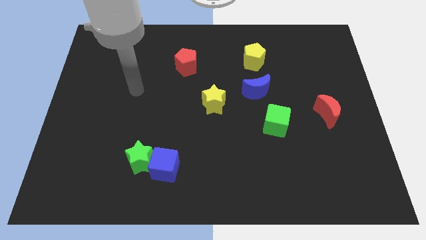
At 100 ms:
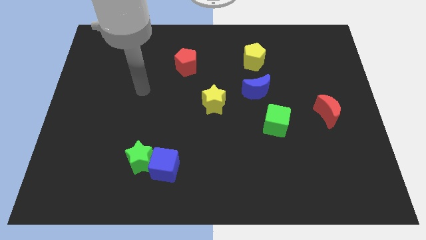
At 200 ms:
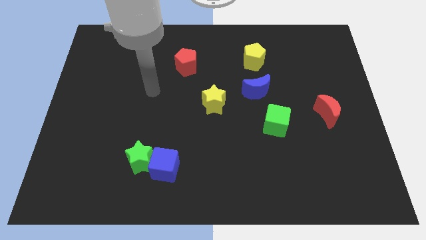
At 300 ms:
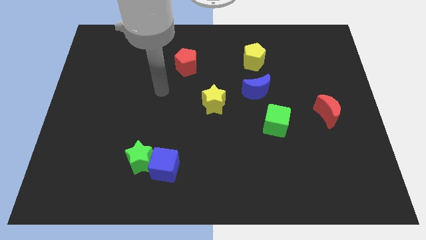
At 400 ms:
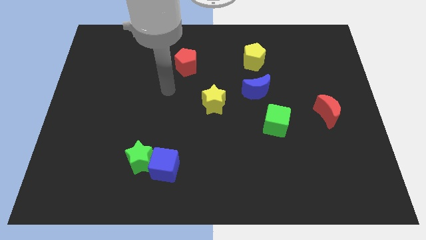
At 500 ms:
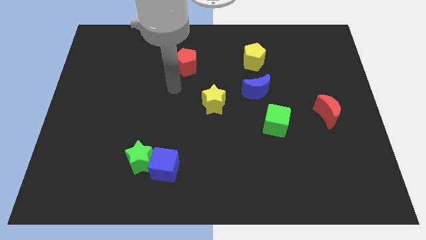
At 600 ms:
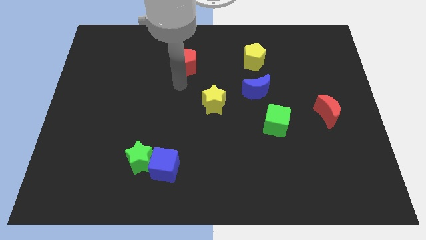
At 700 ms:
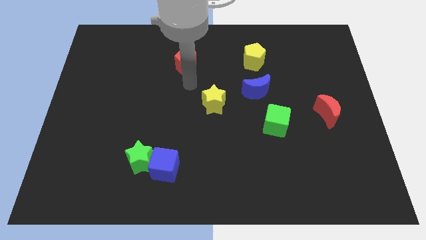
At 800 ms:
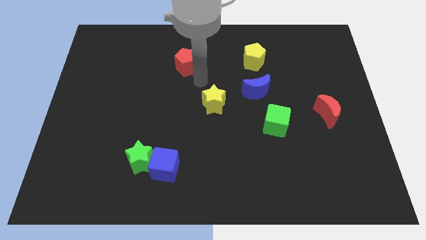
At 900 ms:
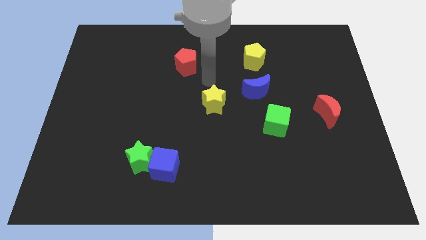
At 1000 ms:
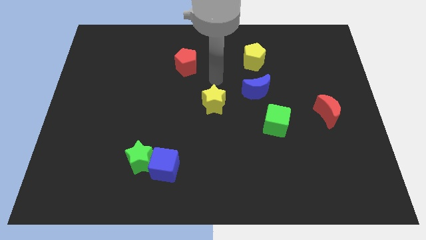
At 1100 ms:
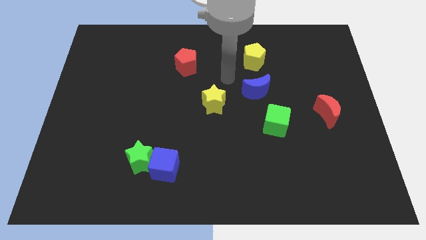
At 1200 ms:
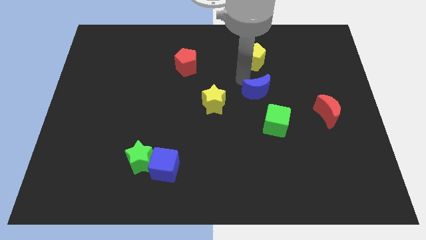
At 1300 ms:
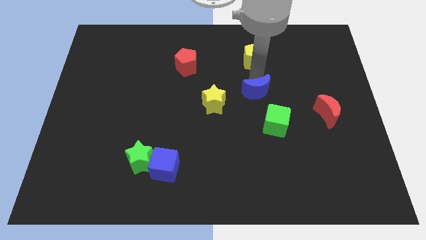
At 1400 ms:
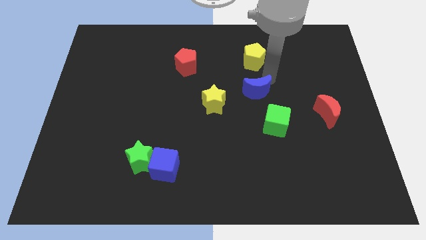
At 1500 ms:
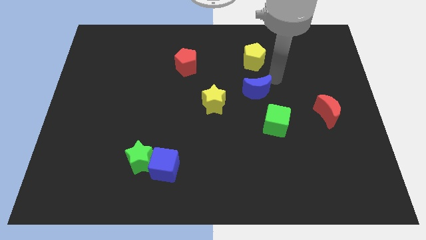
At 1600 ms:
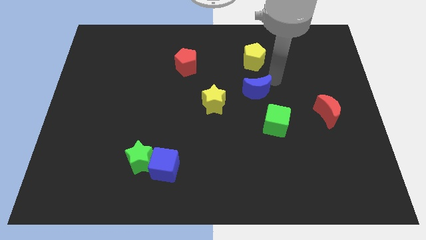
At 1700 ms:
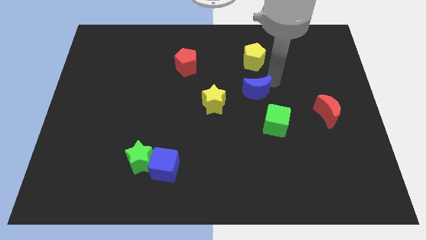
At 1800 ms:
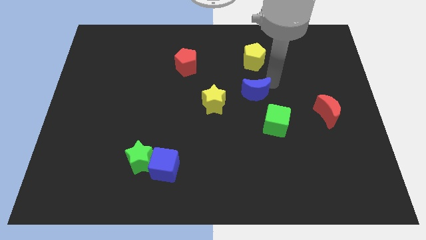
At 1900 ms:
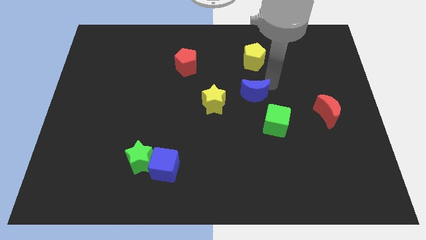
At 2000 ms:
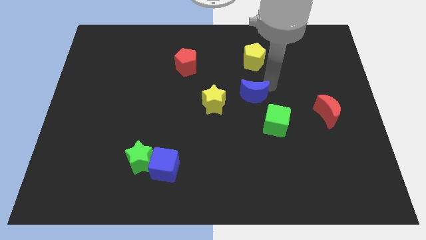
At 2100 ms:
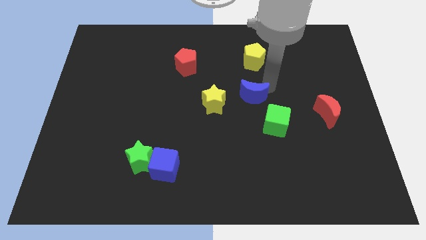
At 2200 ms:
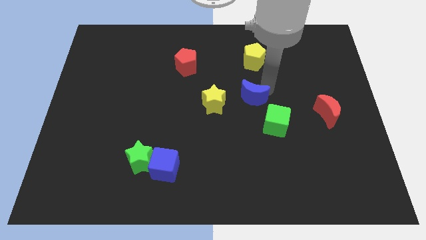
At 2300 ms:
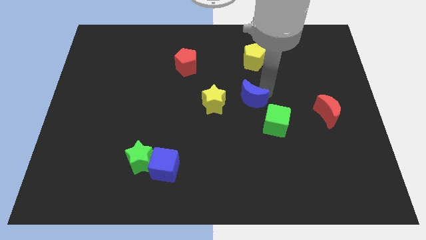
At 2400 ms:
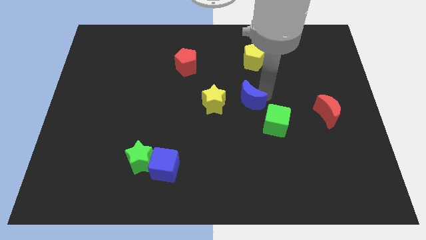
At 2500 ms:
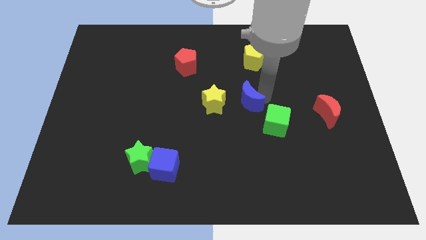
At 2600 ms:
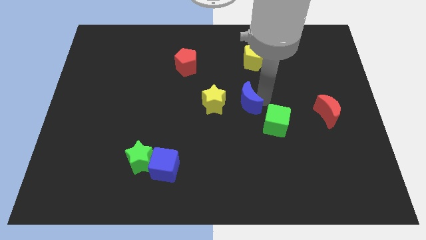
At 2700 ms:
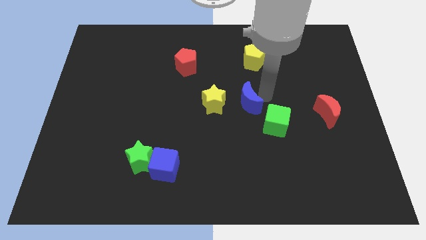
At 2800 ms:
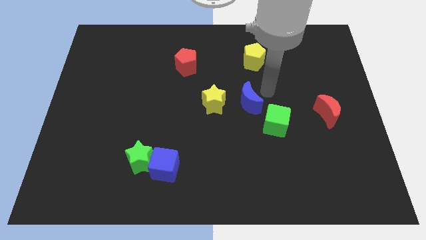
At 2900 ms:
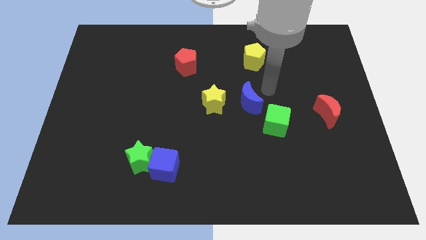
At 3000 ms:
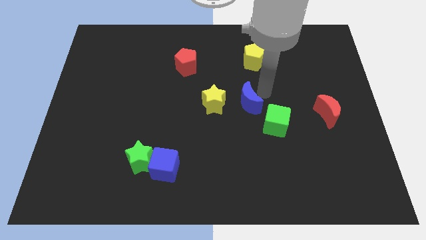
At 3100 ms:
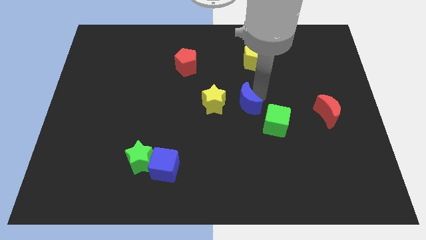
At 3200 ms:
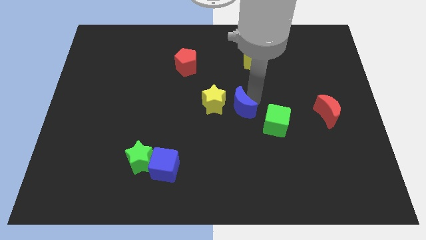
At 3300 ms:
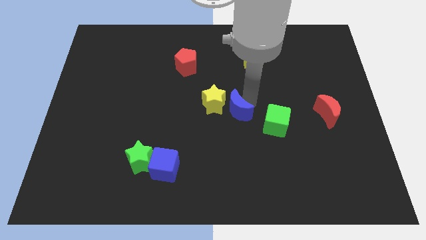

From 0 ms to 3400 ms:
move the blue moon a bit downwards and then left

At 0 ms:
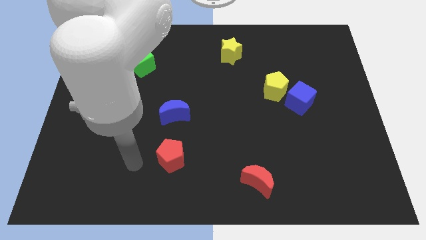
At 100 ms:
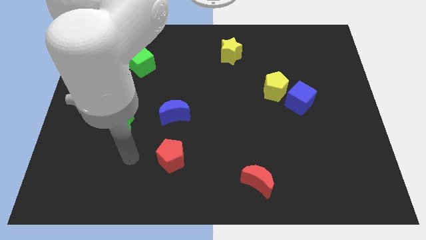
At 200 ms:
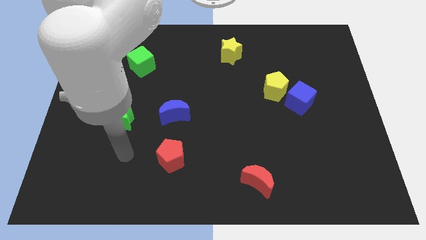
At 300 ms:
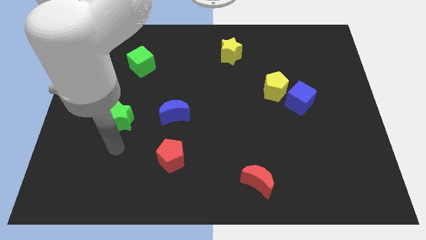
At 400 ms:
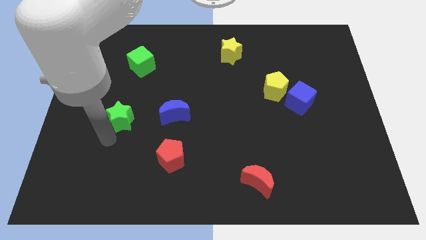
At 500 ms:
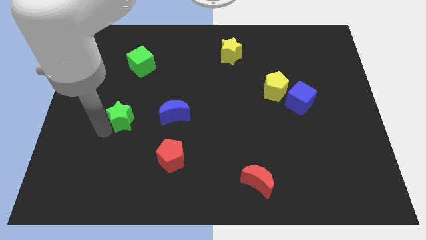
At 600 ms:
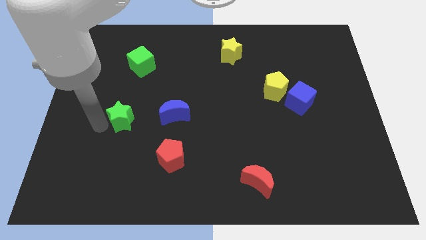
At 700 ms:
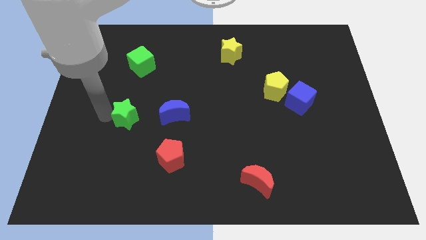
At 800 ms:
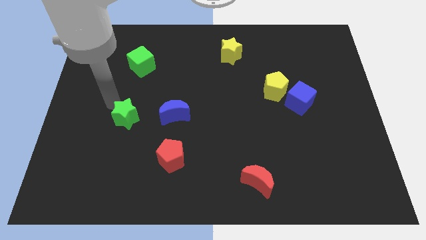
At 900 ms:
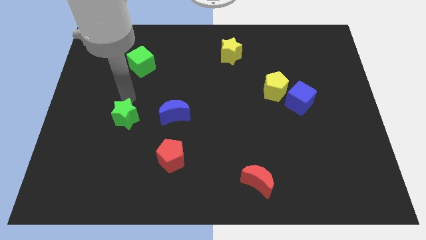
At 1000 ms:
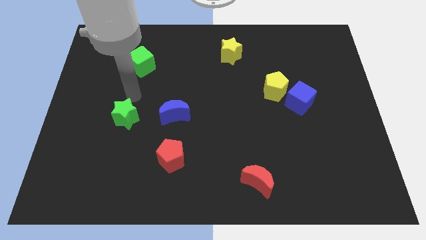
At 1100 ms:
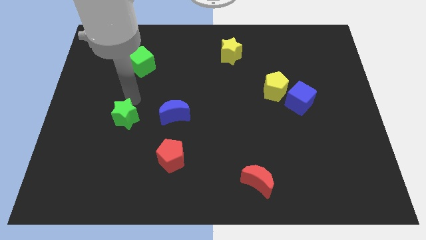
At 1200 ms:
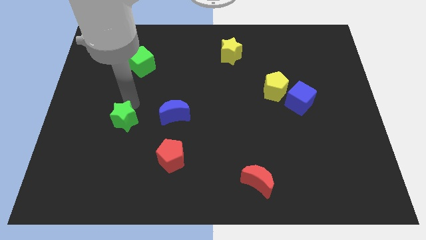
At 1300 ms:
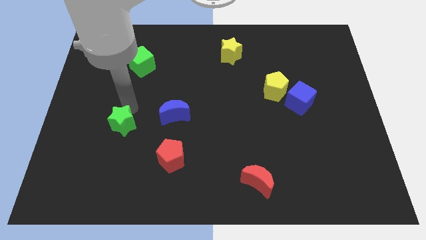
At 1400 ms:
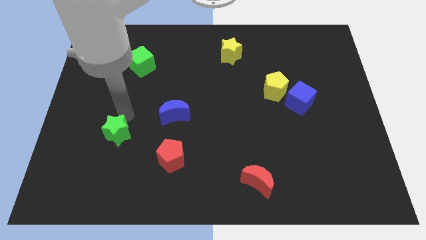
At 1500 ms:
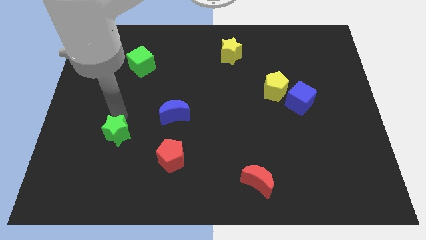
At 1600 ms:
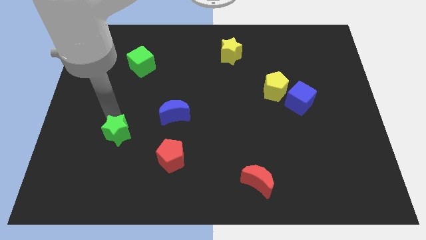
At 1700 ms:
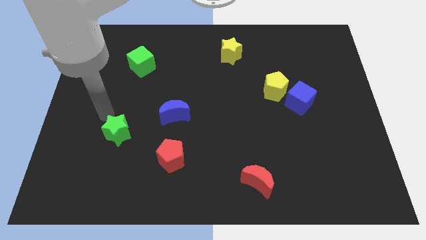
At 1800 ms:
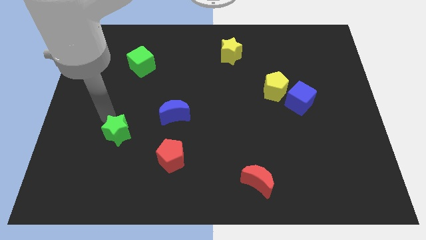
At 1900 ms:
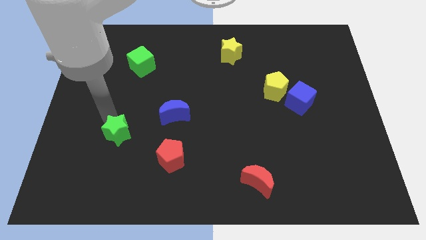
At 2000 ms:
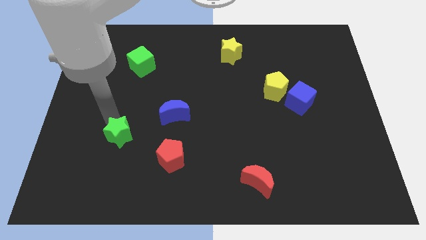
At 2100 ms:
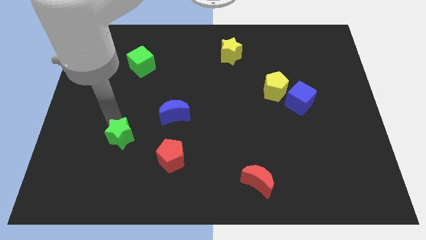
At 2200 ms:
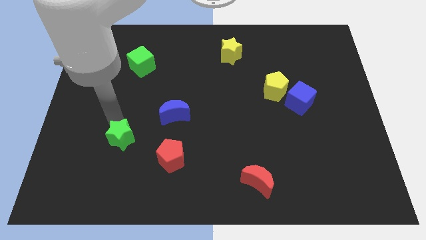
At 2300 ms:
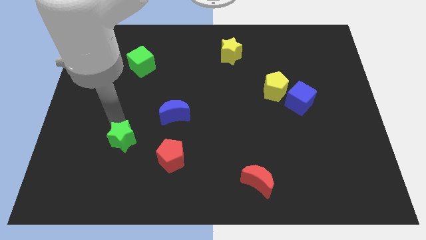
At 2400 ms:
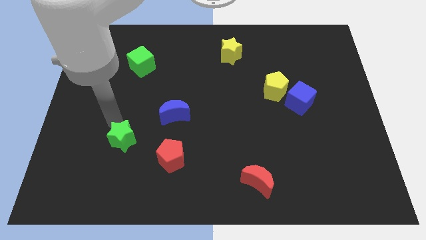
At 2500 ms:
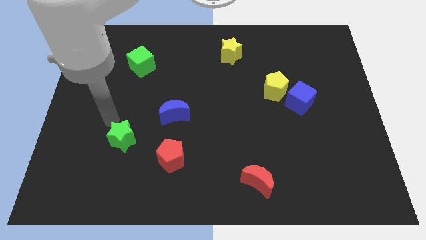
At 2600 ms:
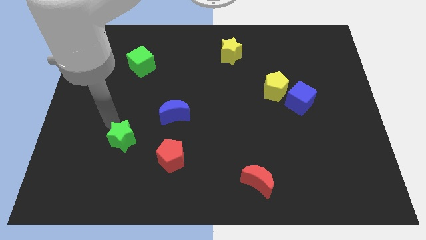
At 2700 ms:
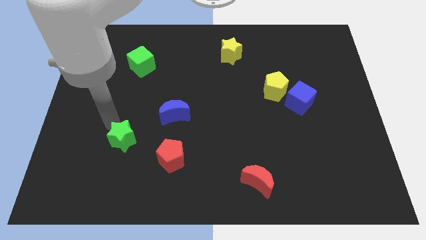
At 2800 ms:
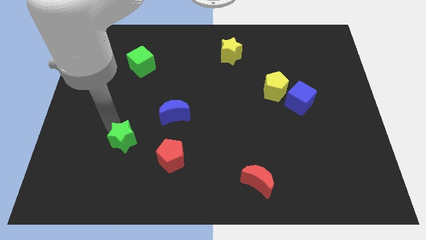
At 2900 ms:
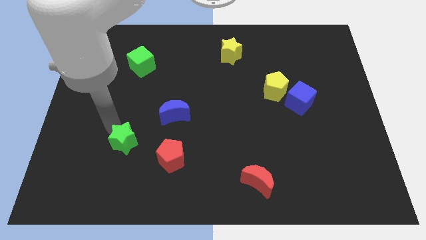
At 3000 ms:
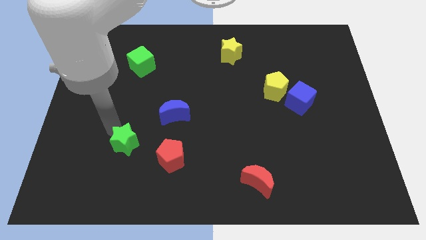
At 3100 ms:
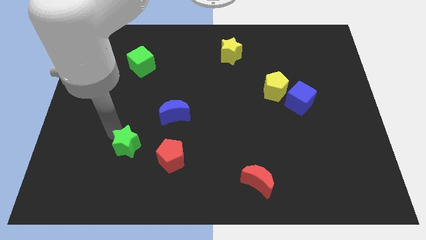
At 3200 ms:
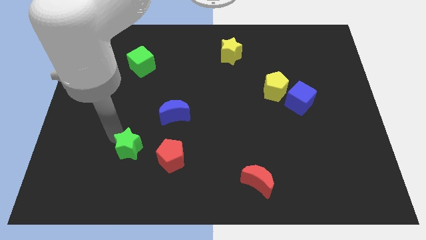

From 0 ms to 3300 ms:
slide the green star a little bit downwards and to the right diagonally

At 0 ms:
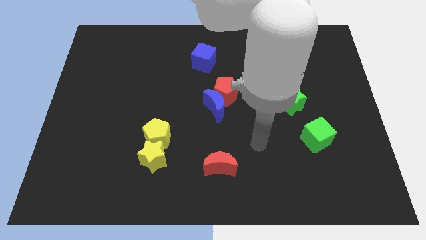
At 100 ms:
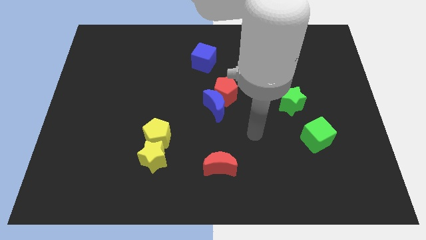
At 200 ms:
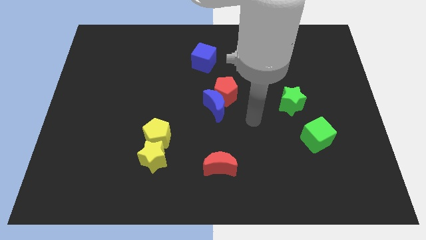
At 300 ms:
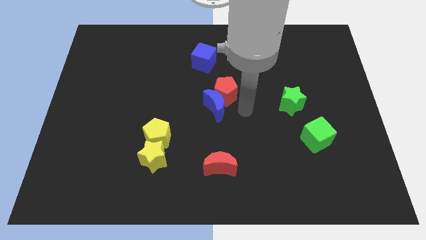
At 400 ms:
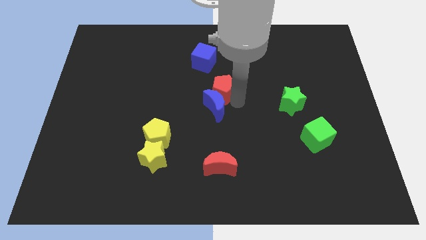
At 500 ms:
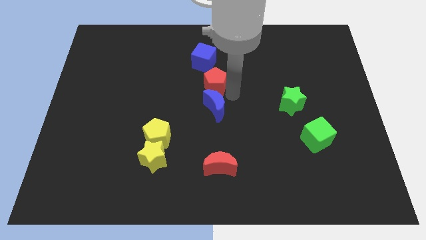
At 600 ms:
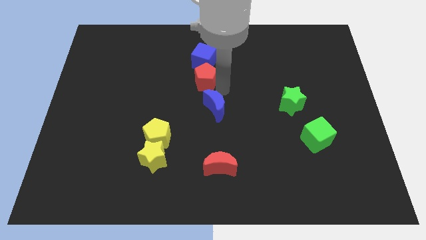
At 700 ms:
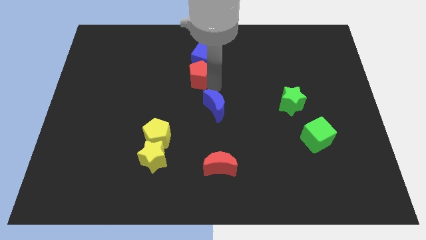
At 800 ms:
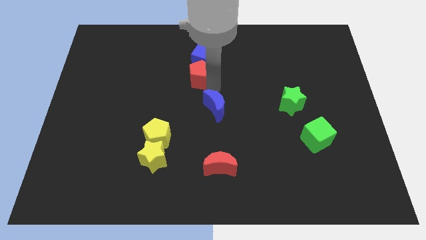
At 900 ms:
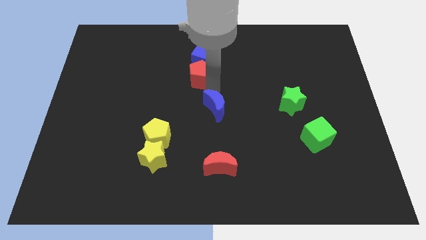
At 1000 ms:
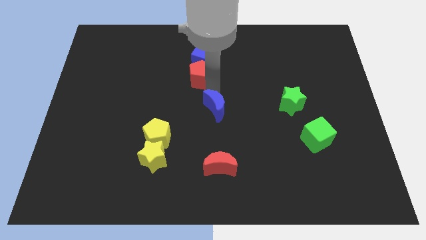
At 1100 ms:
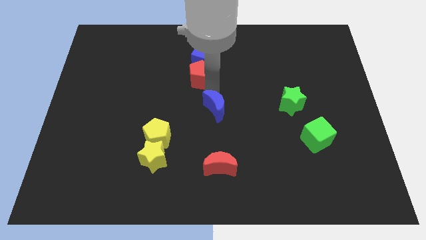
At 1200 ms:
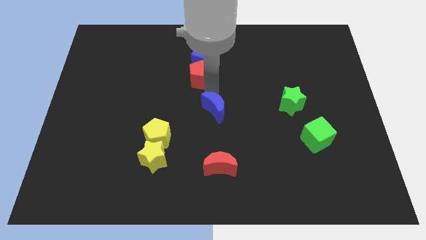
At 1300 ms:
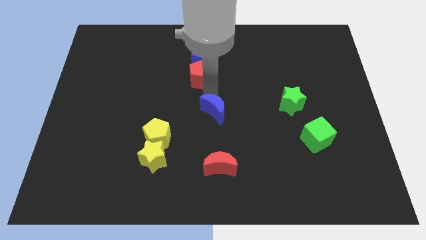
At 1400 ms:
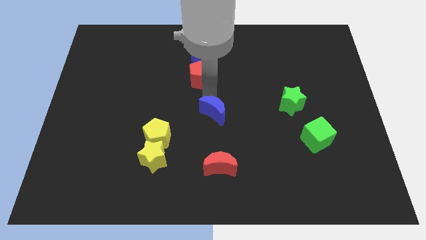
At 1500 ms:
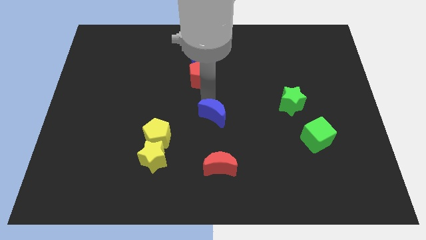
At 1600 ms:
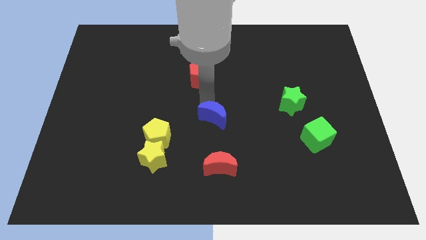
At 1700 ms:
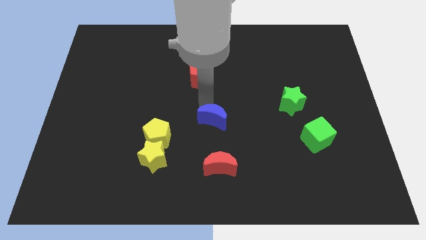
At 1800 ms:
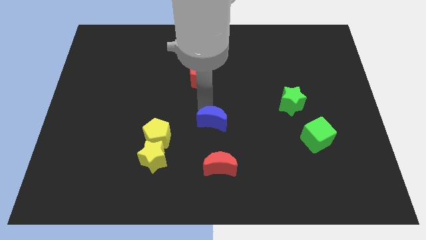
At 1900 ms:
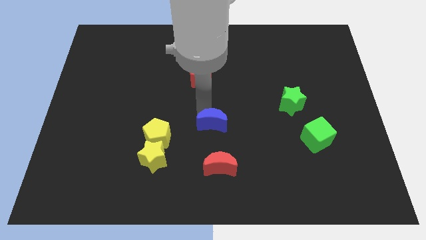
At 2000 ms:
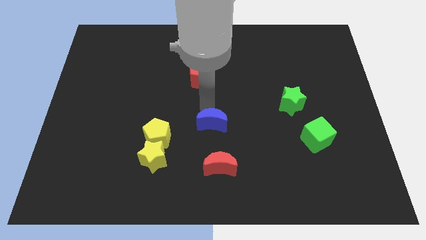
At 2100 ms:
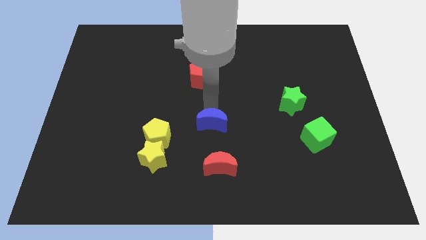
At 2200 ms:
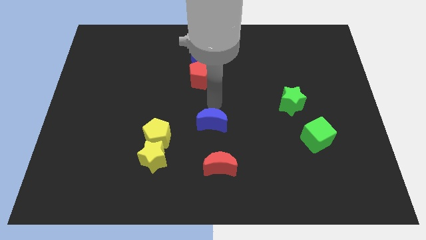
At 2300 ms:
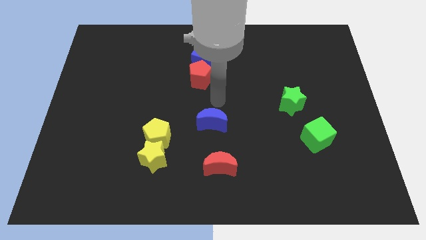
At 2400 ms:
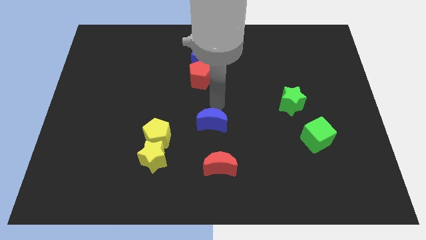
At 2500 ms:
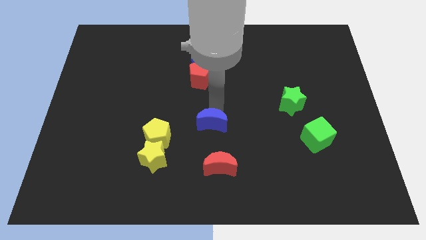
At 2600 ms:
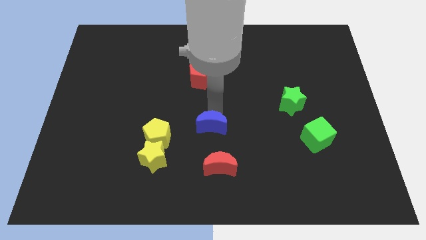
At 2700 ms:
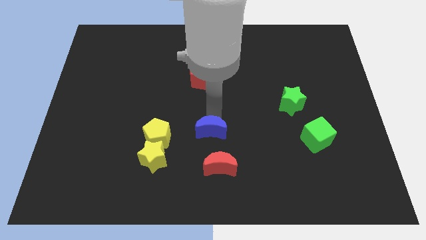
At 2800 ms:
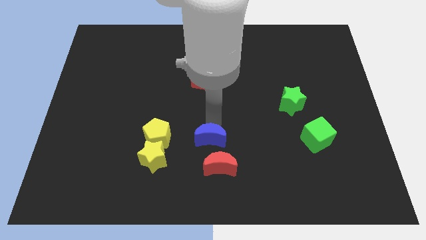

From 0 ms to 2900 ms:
slightly slide the blue moon down
